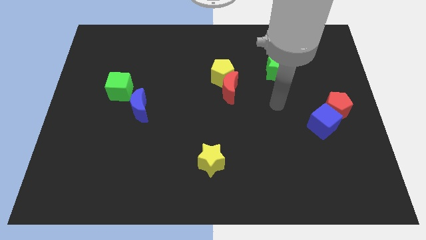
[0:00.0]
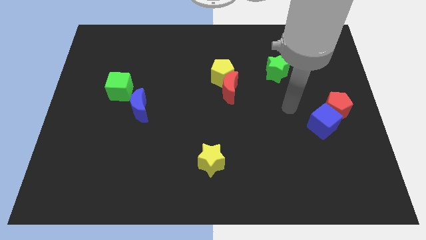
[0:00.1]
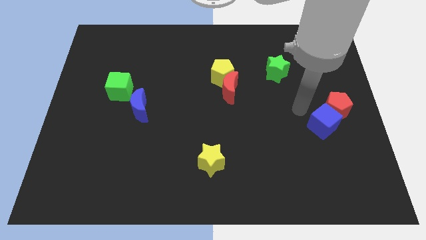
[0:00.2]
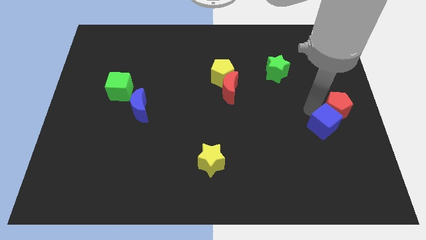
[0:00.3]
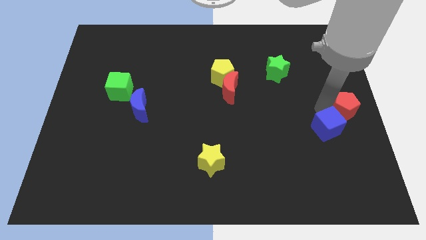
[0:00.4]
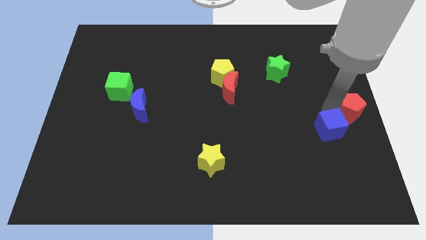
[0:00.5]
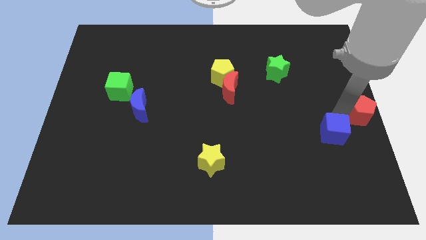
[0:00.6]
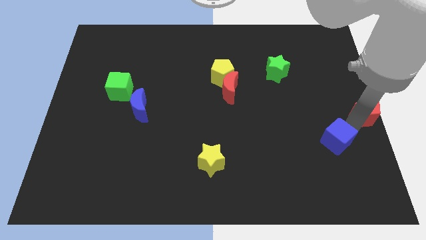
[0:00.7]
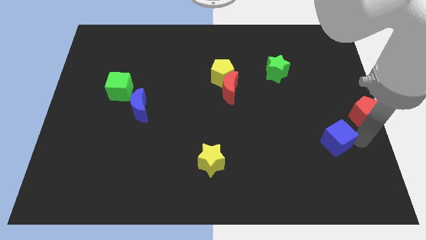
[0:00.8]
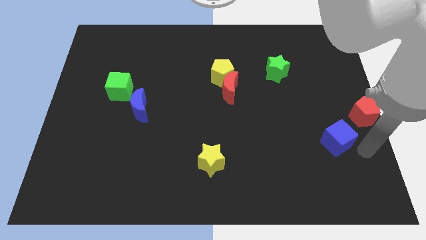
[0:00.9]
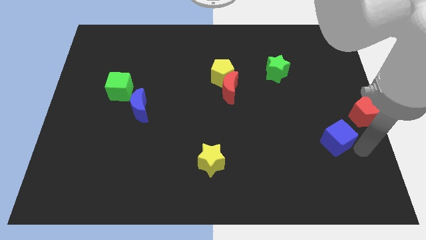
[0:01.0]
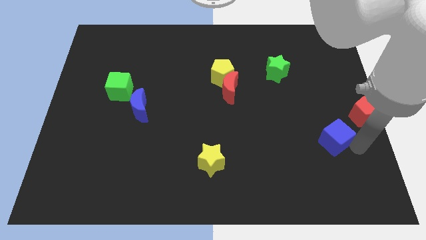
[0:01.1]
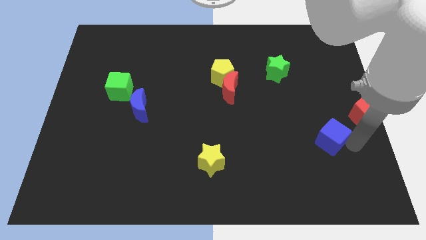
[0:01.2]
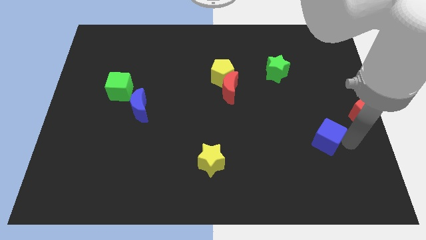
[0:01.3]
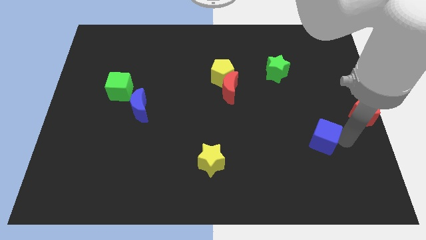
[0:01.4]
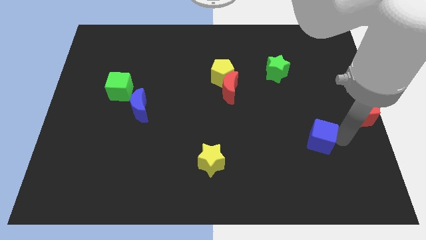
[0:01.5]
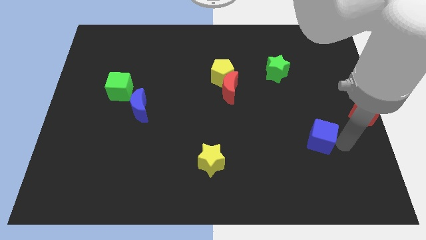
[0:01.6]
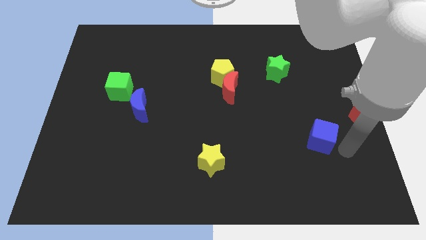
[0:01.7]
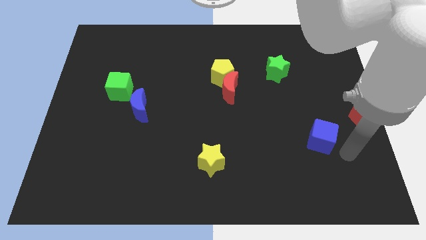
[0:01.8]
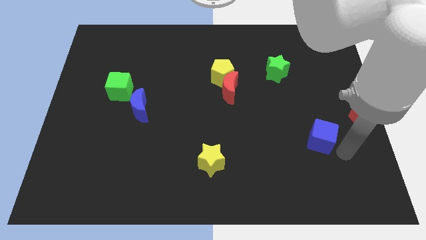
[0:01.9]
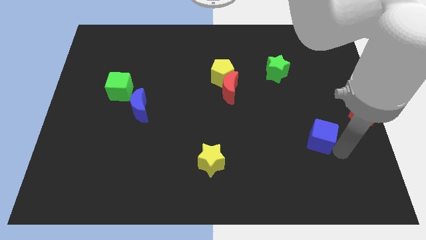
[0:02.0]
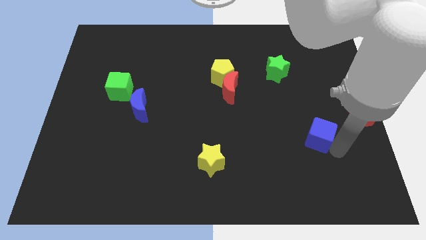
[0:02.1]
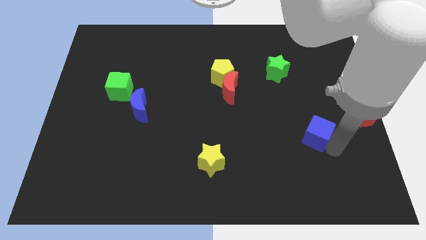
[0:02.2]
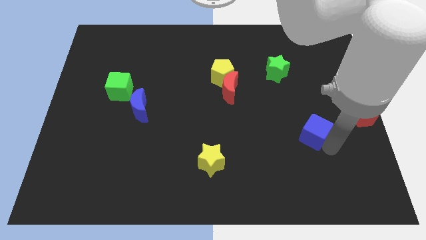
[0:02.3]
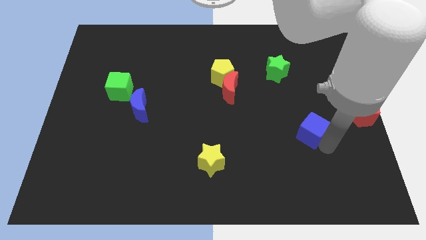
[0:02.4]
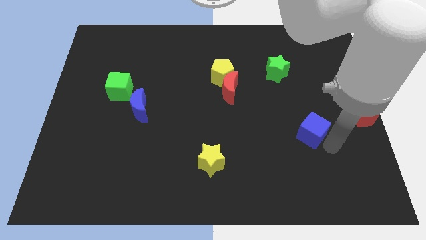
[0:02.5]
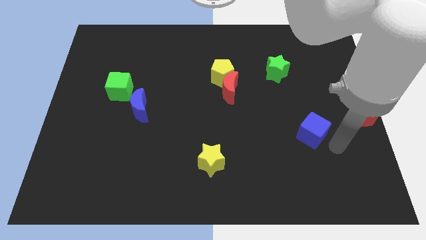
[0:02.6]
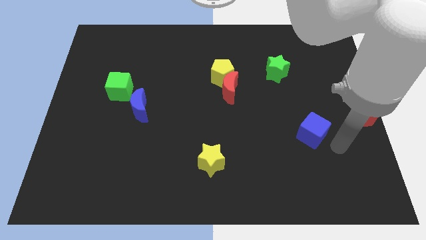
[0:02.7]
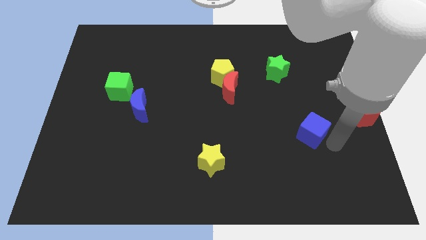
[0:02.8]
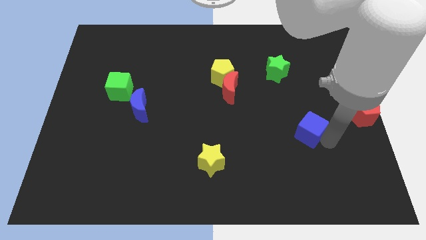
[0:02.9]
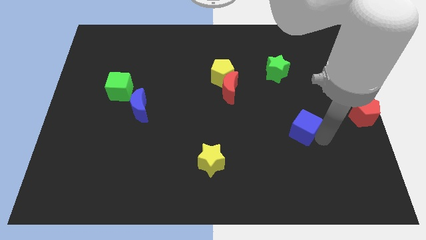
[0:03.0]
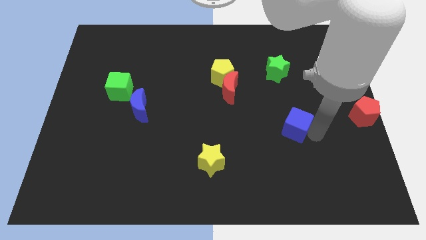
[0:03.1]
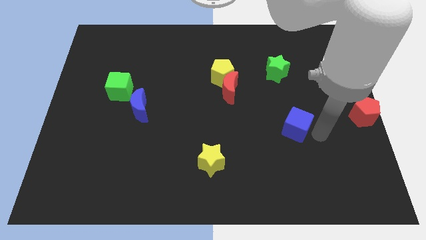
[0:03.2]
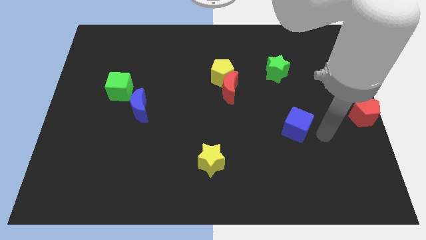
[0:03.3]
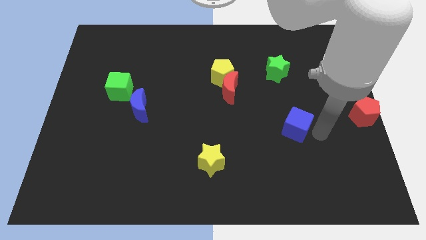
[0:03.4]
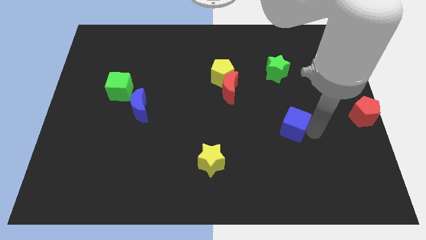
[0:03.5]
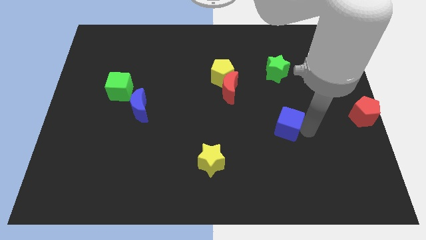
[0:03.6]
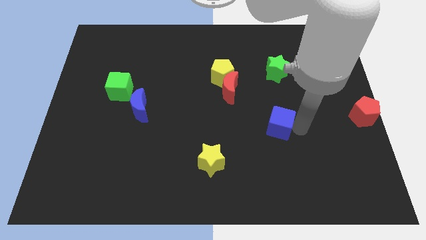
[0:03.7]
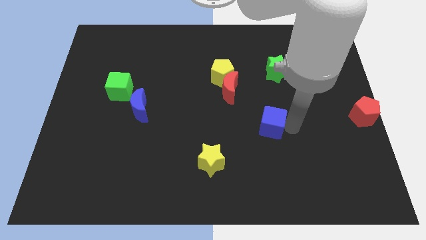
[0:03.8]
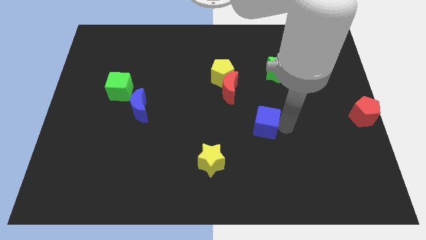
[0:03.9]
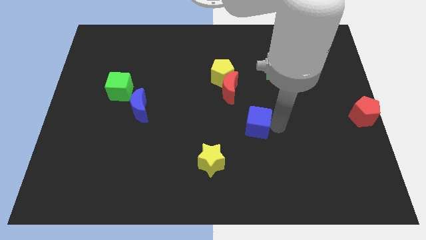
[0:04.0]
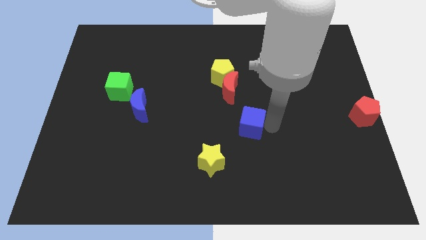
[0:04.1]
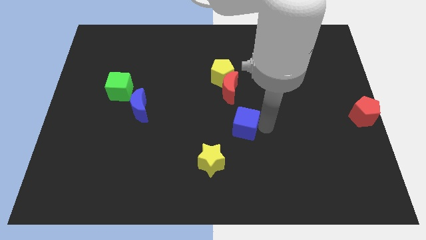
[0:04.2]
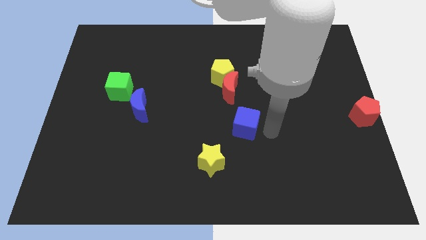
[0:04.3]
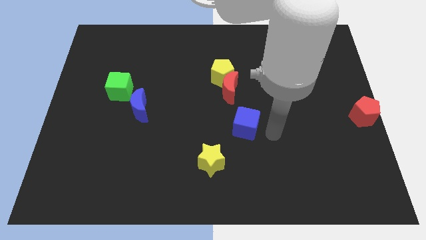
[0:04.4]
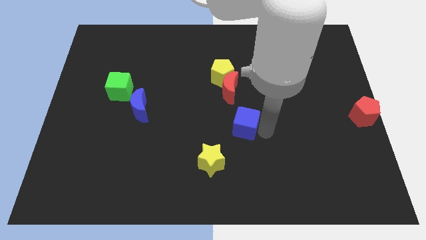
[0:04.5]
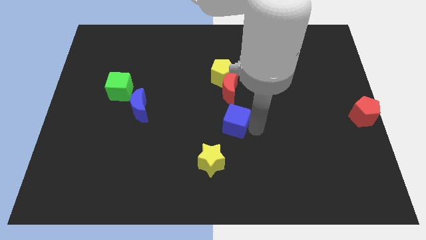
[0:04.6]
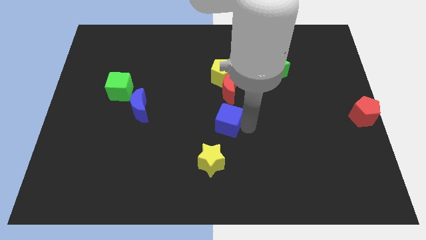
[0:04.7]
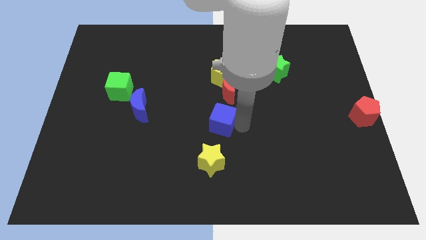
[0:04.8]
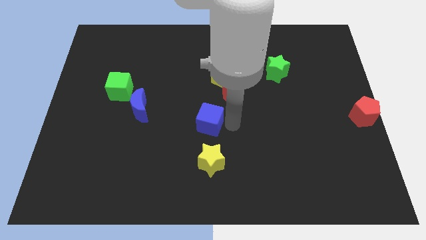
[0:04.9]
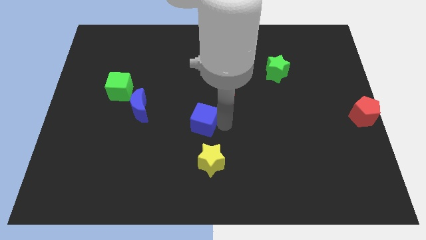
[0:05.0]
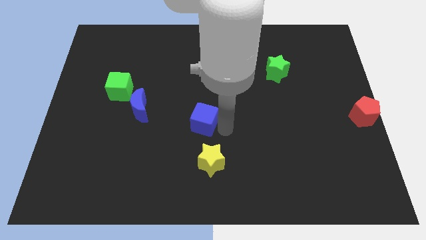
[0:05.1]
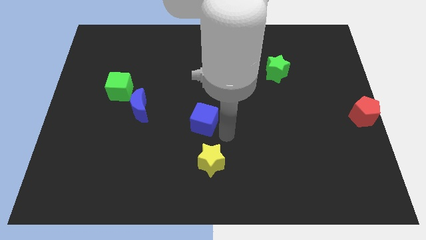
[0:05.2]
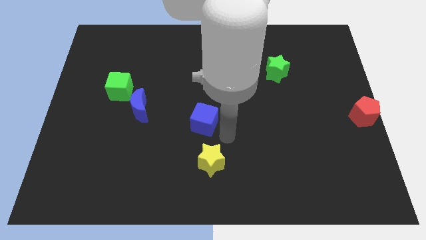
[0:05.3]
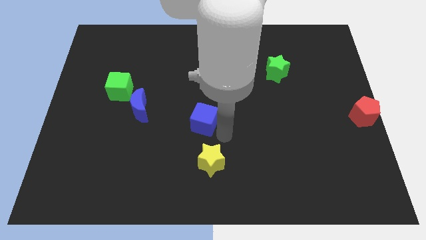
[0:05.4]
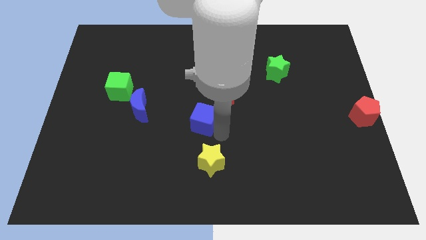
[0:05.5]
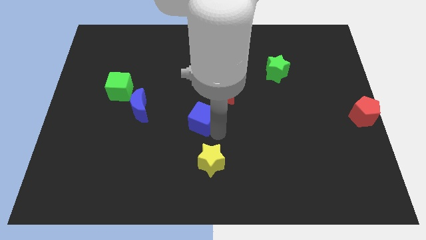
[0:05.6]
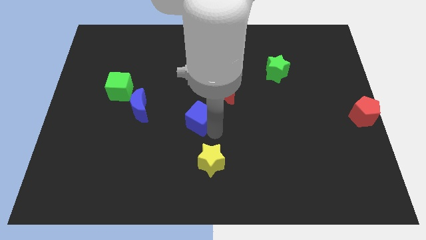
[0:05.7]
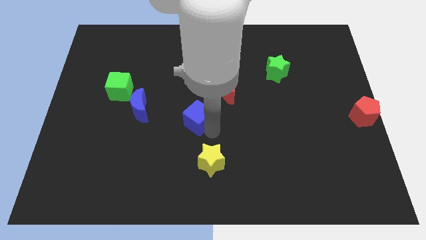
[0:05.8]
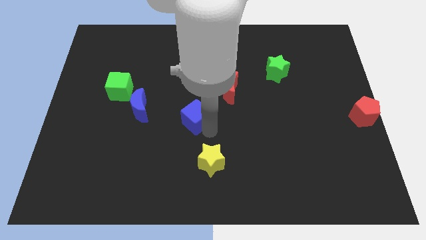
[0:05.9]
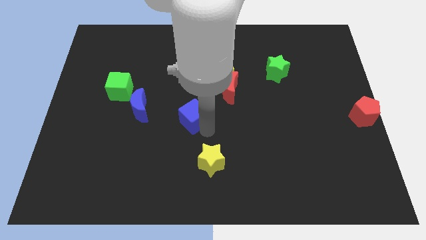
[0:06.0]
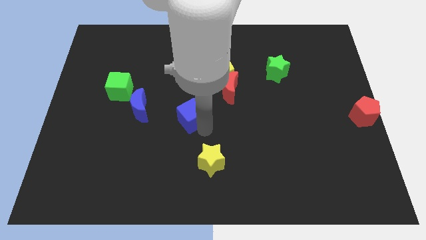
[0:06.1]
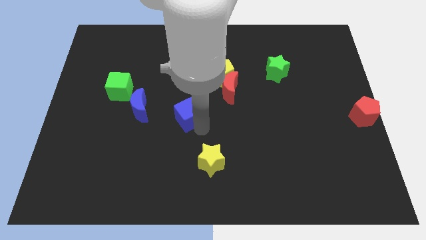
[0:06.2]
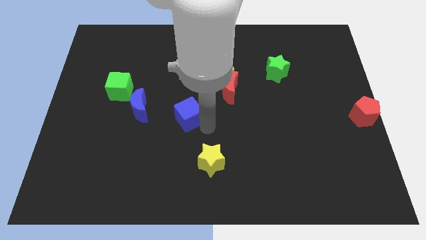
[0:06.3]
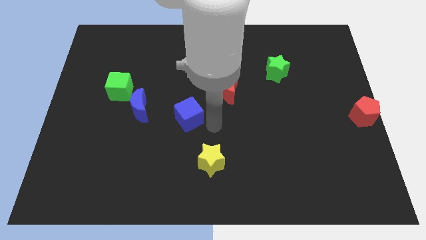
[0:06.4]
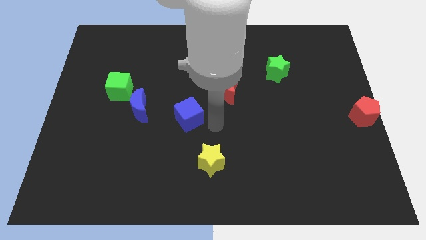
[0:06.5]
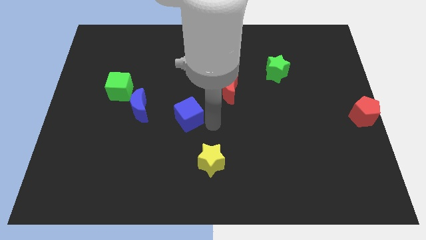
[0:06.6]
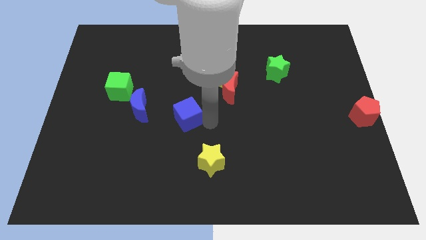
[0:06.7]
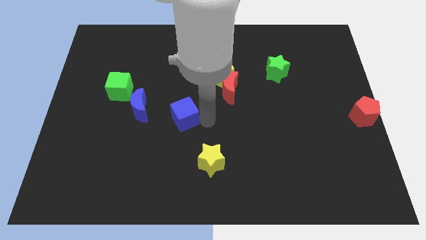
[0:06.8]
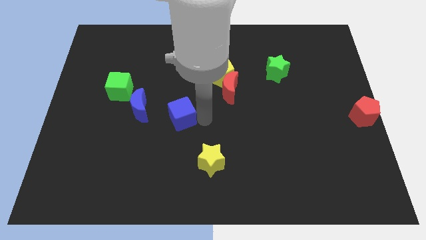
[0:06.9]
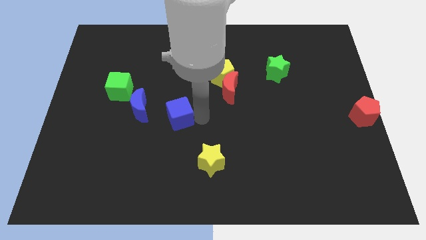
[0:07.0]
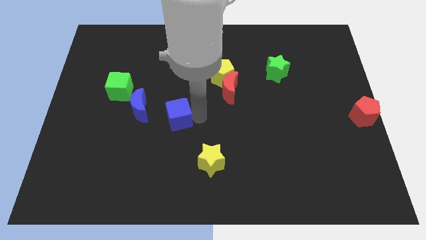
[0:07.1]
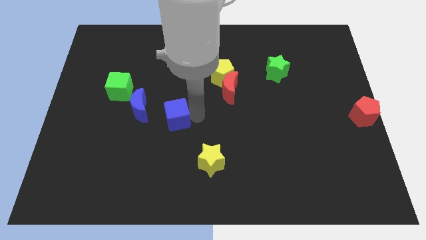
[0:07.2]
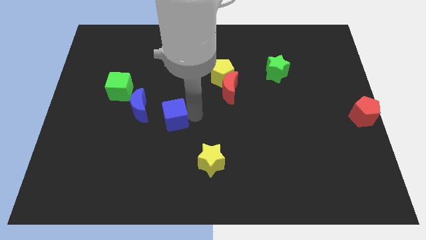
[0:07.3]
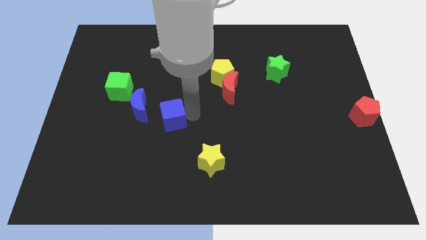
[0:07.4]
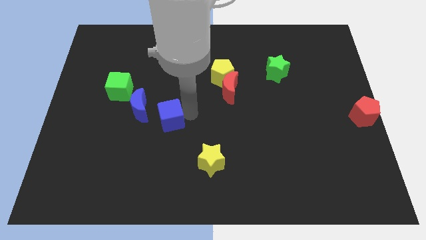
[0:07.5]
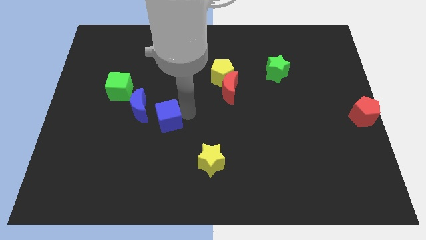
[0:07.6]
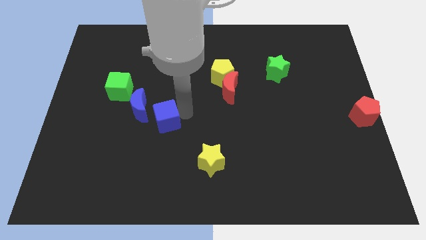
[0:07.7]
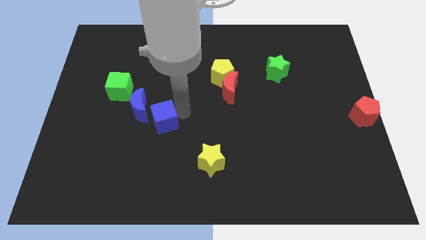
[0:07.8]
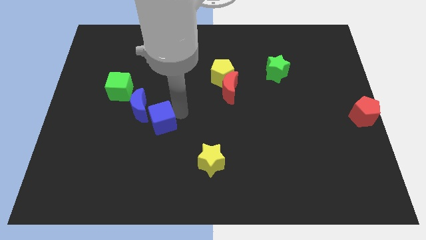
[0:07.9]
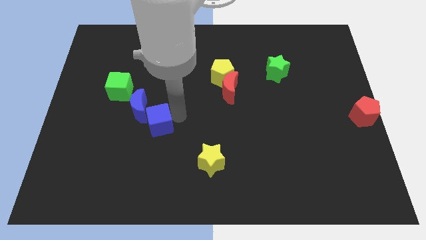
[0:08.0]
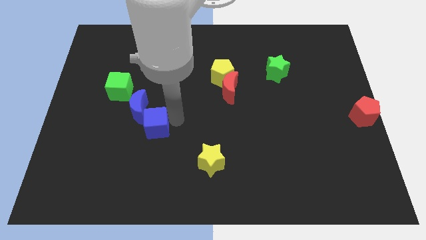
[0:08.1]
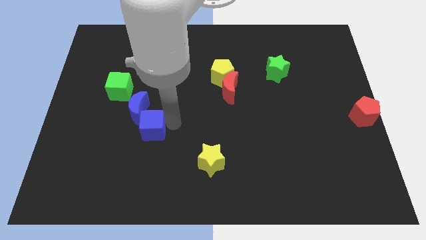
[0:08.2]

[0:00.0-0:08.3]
slide the blue cube next to the blue moon
